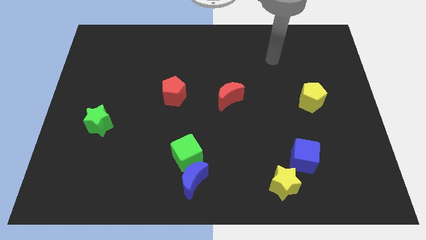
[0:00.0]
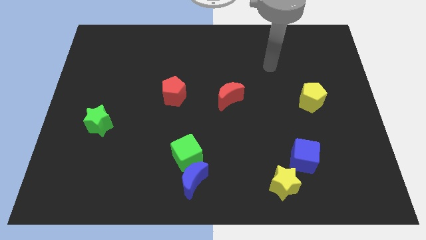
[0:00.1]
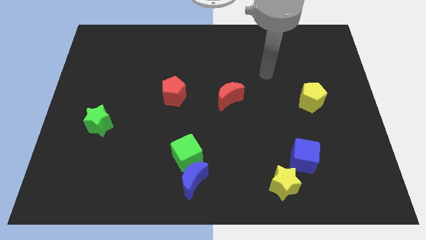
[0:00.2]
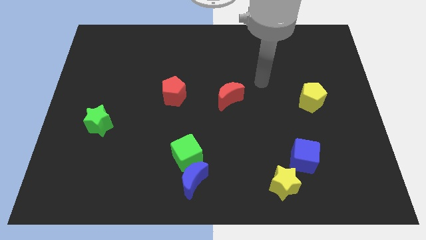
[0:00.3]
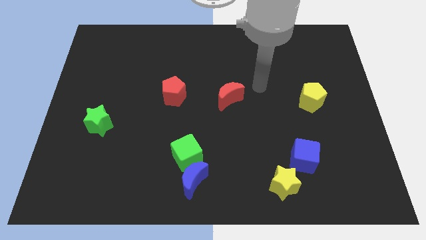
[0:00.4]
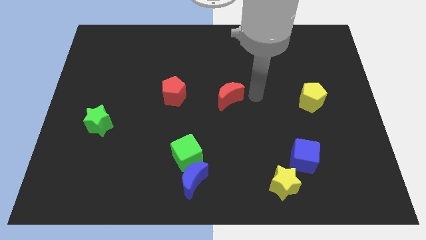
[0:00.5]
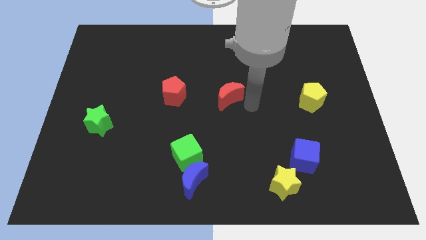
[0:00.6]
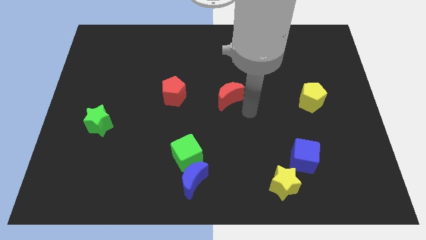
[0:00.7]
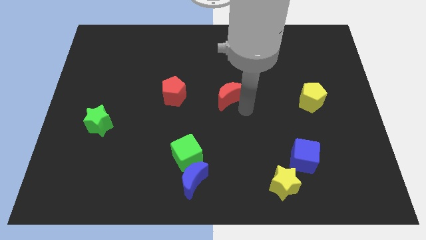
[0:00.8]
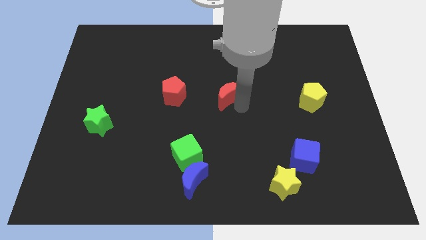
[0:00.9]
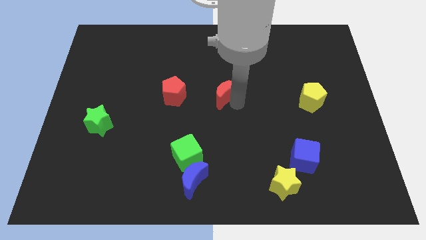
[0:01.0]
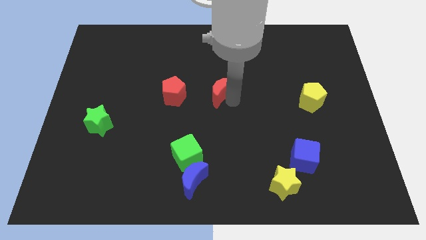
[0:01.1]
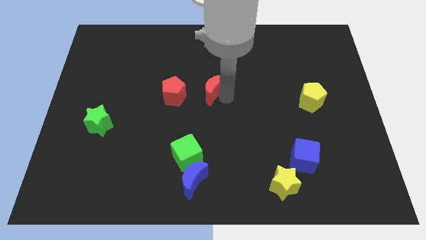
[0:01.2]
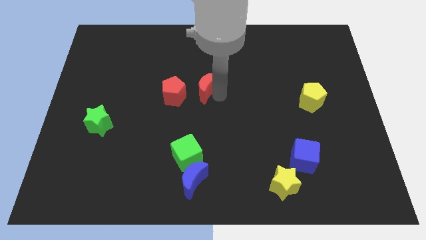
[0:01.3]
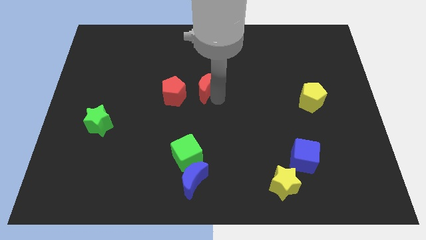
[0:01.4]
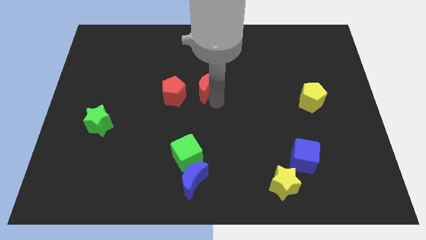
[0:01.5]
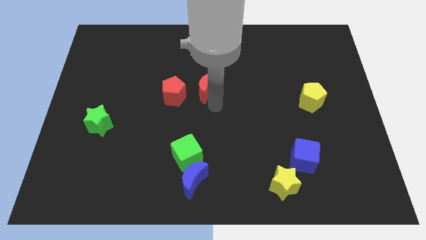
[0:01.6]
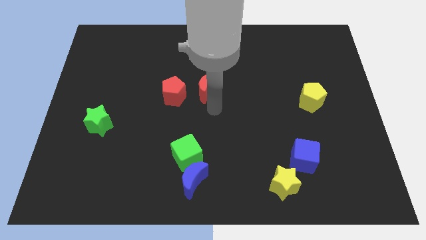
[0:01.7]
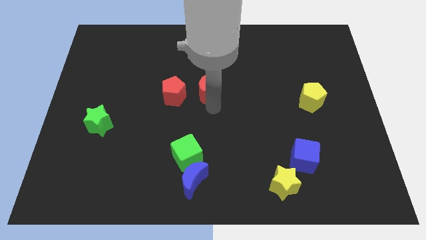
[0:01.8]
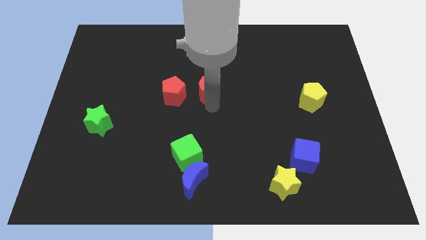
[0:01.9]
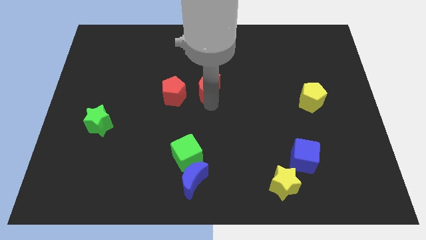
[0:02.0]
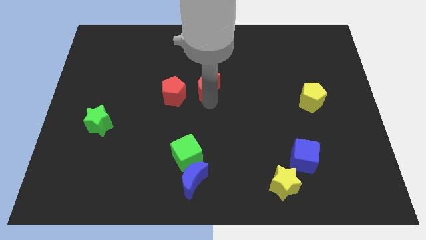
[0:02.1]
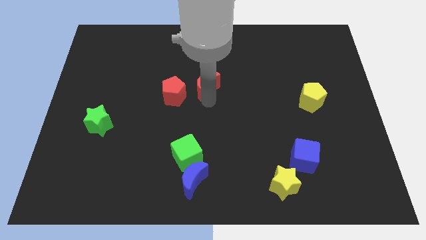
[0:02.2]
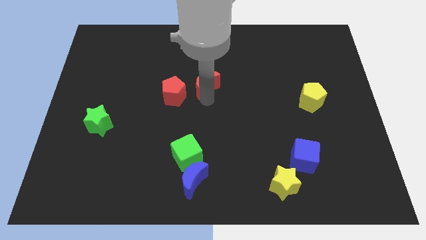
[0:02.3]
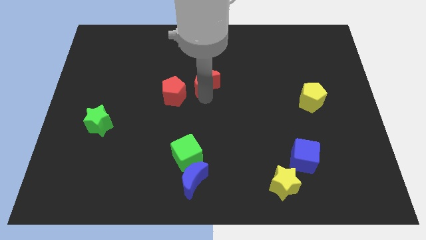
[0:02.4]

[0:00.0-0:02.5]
push the red moon a little bit upwards and left

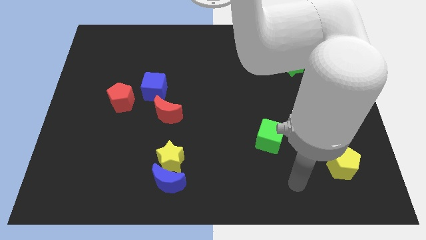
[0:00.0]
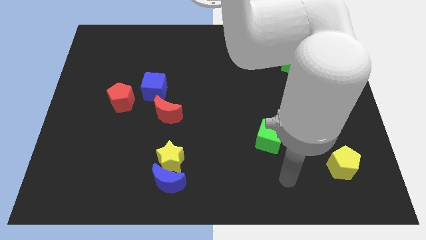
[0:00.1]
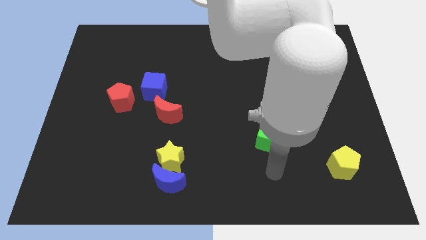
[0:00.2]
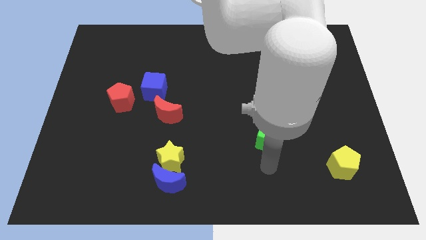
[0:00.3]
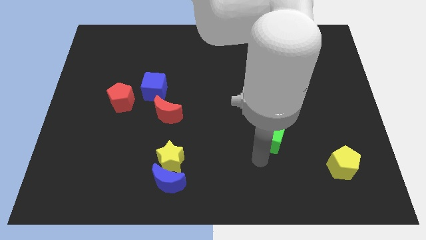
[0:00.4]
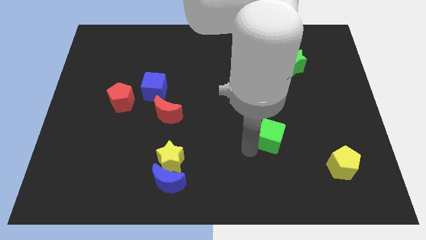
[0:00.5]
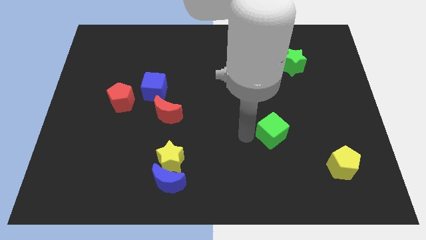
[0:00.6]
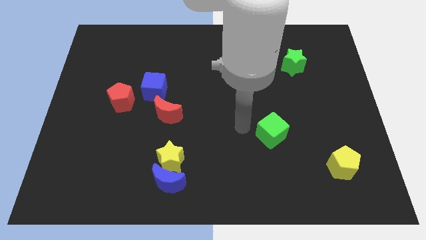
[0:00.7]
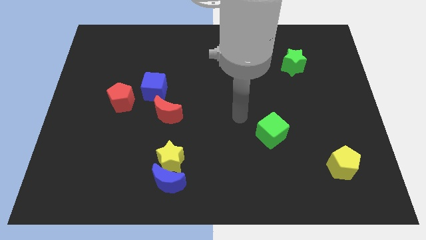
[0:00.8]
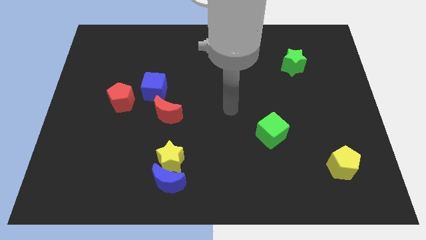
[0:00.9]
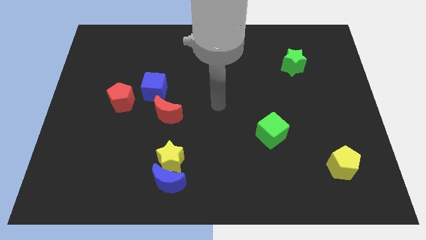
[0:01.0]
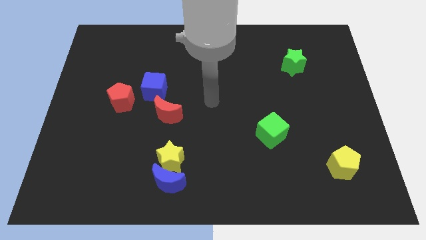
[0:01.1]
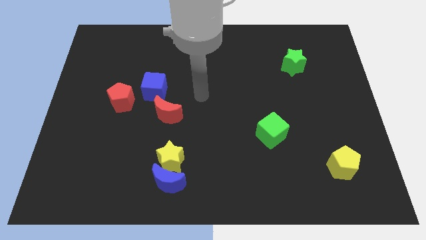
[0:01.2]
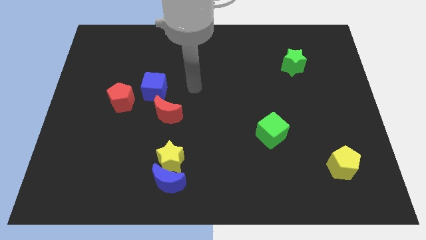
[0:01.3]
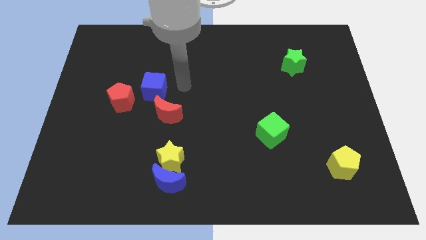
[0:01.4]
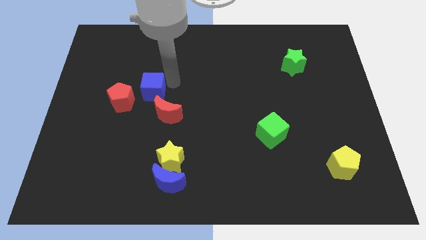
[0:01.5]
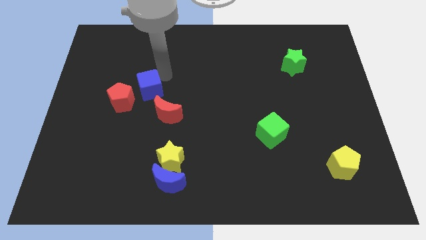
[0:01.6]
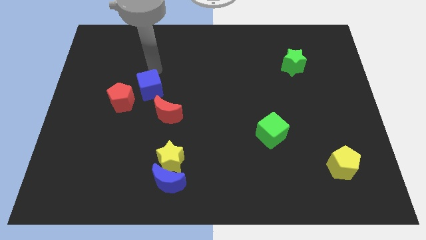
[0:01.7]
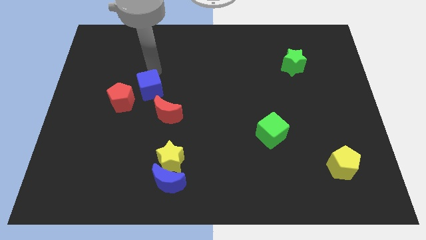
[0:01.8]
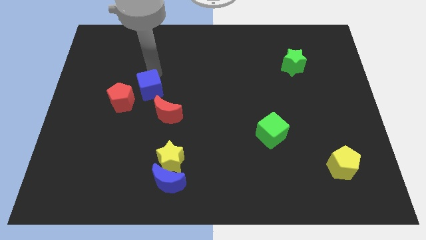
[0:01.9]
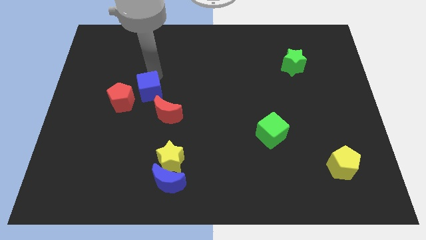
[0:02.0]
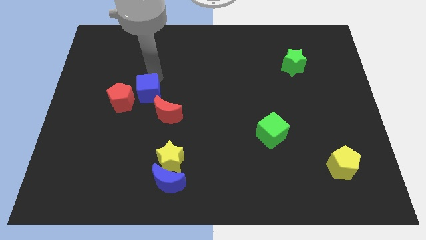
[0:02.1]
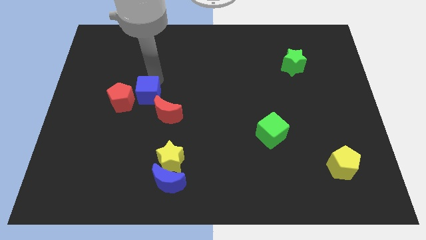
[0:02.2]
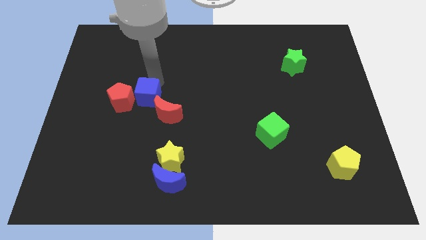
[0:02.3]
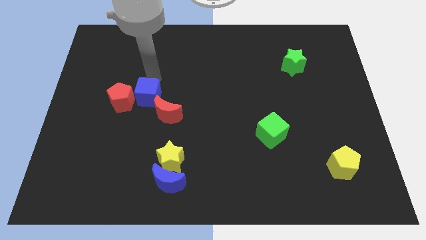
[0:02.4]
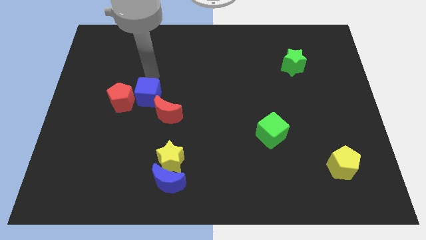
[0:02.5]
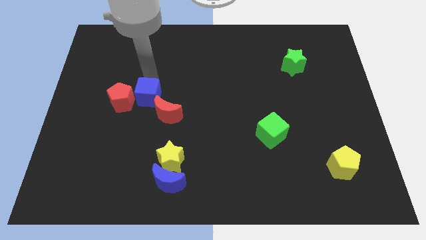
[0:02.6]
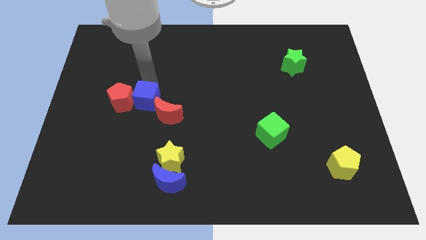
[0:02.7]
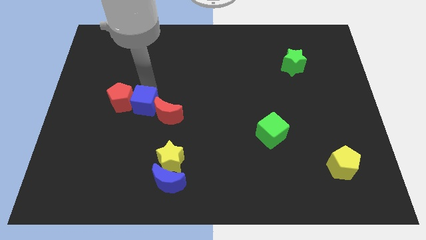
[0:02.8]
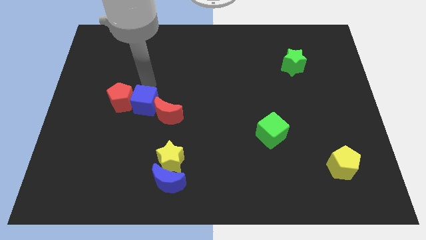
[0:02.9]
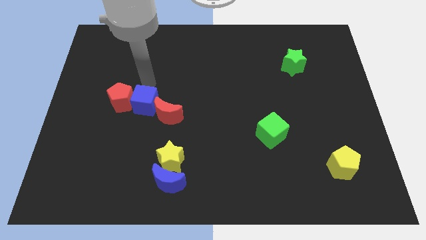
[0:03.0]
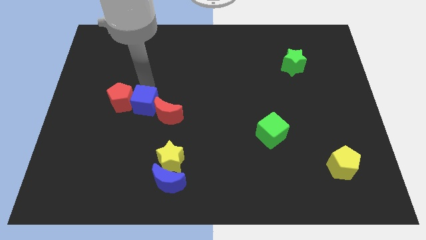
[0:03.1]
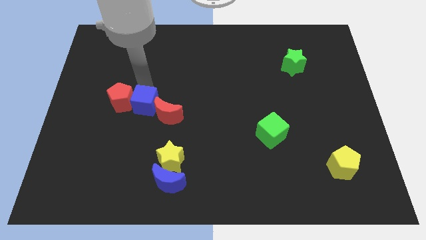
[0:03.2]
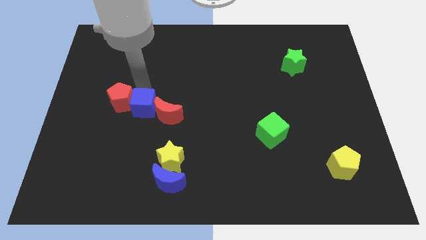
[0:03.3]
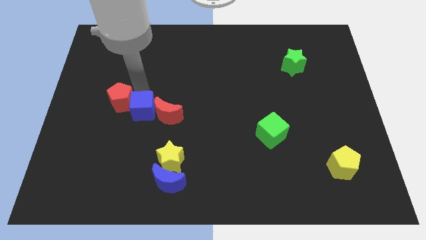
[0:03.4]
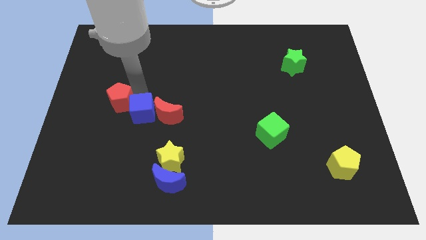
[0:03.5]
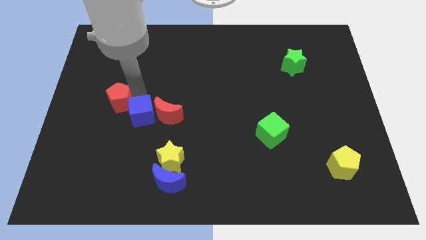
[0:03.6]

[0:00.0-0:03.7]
slightly slide the blue cube down

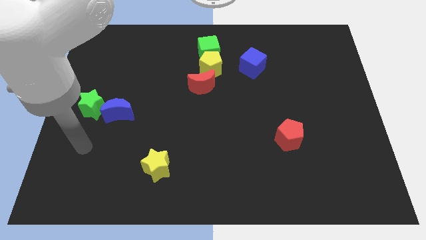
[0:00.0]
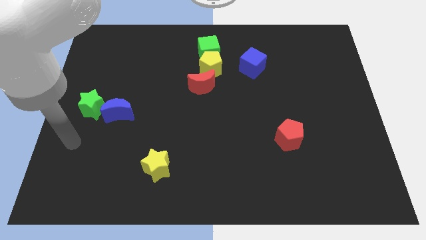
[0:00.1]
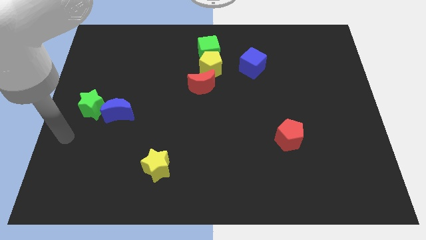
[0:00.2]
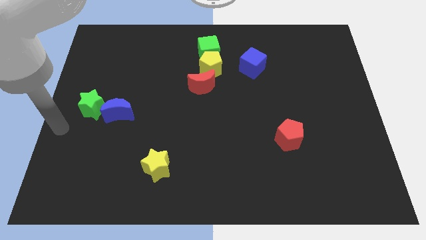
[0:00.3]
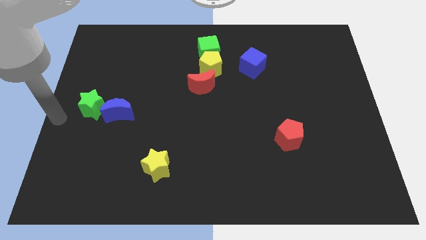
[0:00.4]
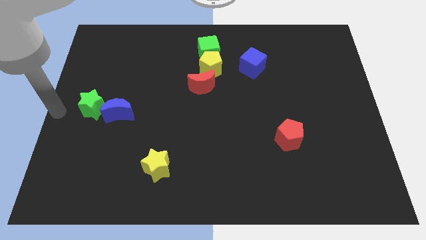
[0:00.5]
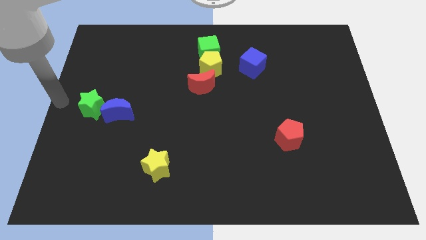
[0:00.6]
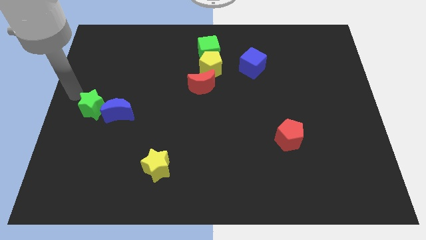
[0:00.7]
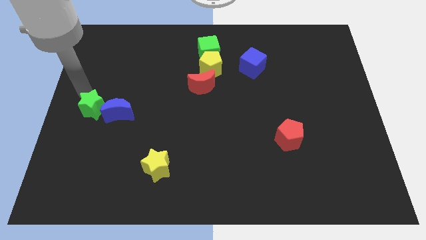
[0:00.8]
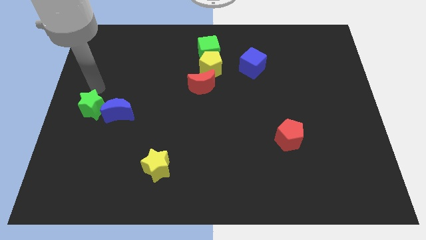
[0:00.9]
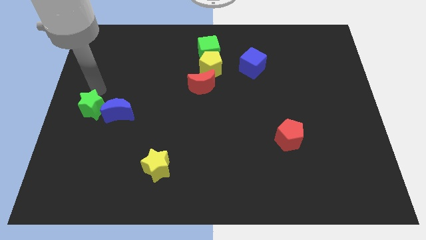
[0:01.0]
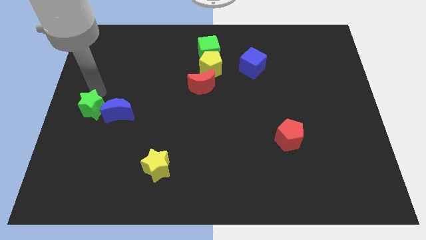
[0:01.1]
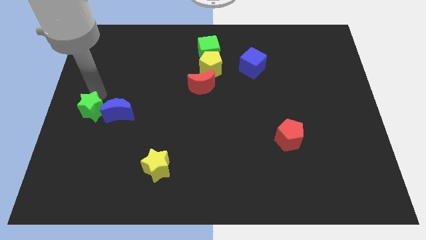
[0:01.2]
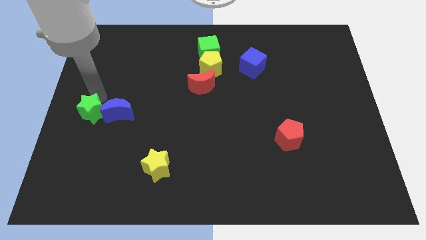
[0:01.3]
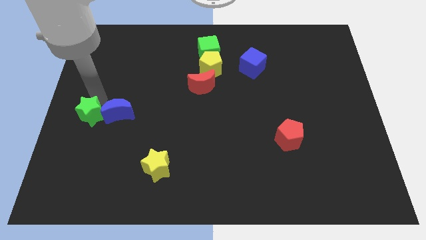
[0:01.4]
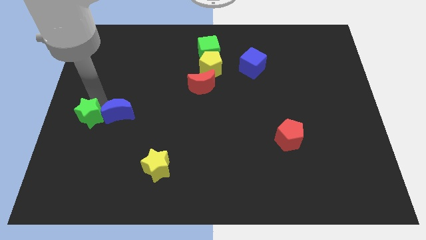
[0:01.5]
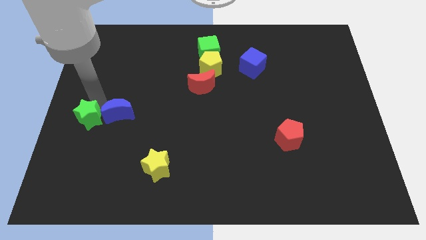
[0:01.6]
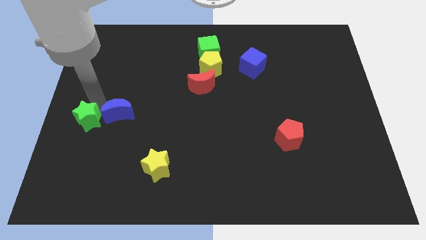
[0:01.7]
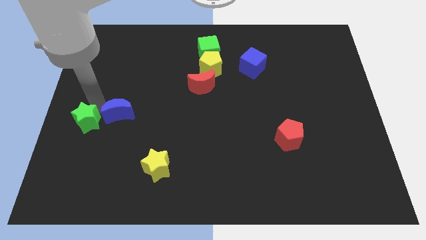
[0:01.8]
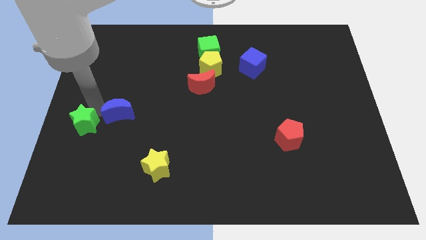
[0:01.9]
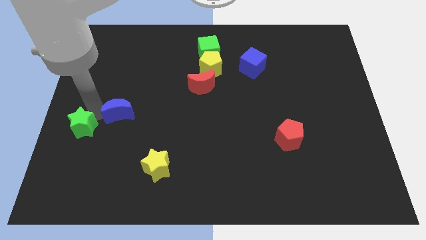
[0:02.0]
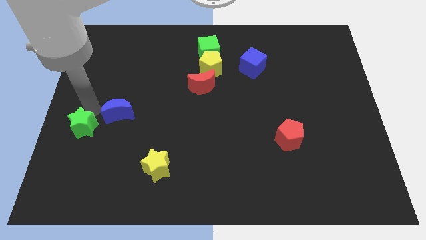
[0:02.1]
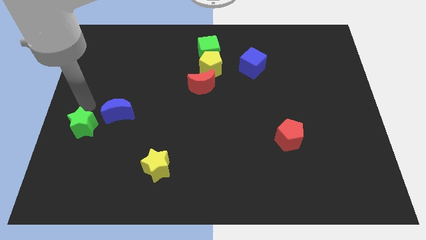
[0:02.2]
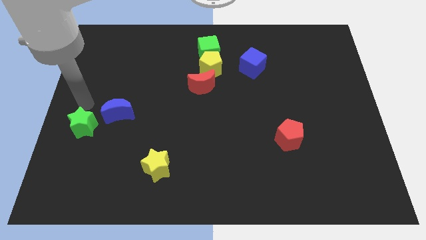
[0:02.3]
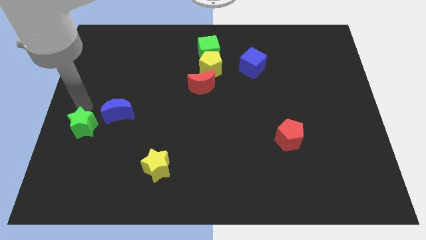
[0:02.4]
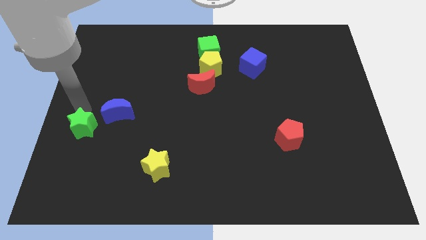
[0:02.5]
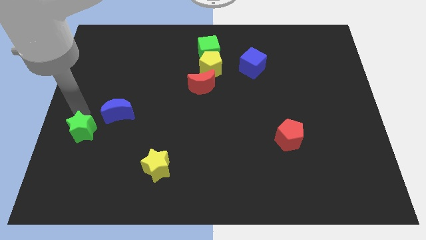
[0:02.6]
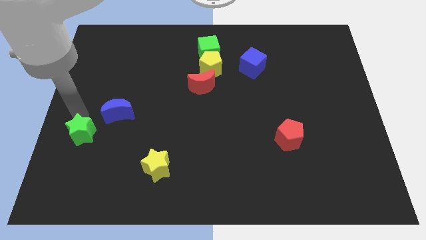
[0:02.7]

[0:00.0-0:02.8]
push the green star somewhat downwards
